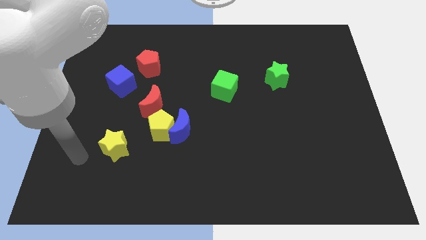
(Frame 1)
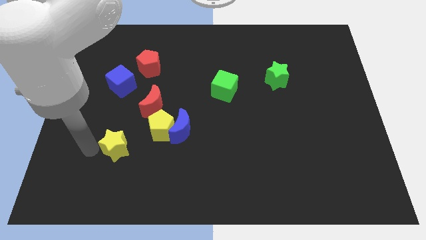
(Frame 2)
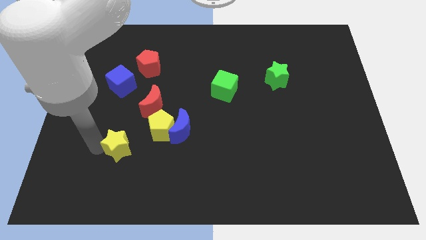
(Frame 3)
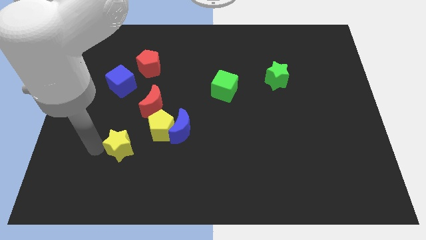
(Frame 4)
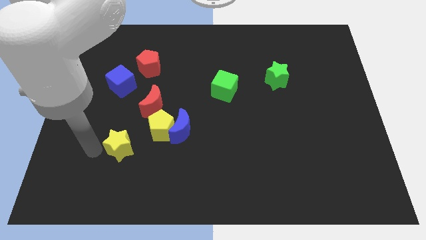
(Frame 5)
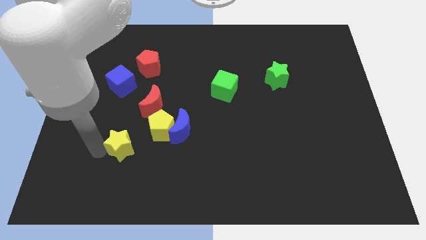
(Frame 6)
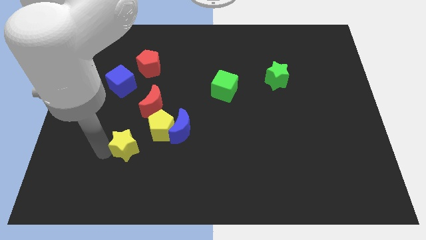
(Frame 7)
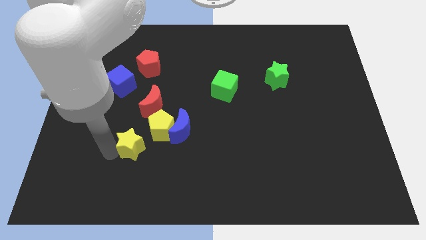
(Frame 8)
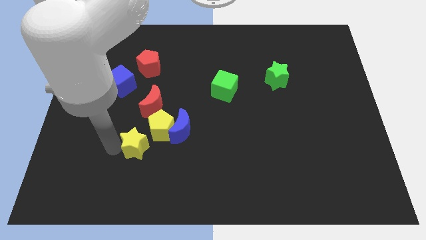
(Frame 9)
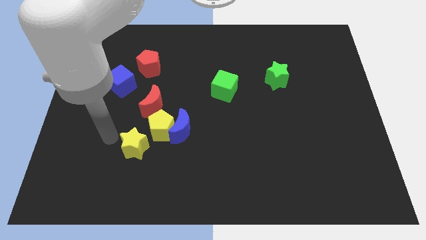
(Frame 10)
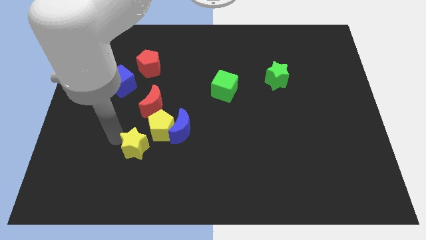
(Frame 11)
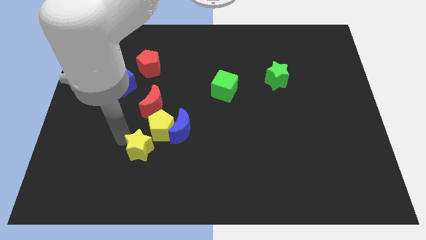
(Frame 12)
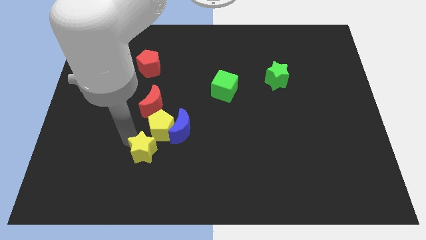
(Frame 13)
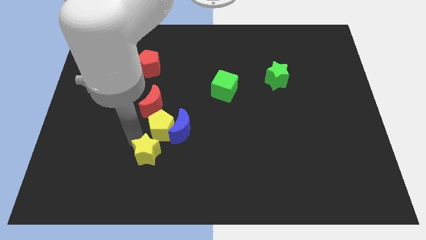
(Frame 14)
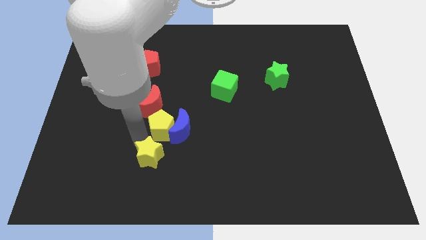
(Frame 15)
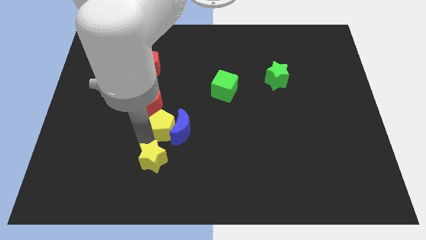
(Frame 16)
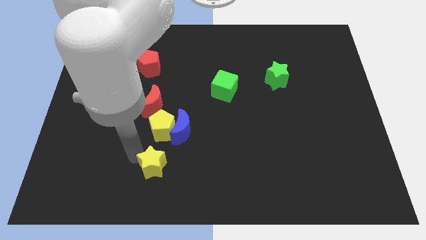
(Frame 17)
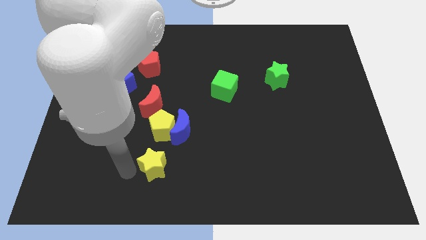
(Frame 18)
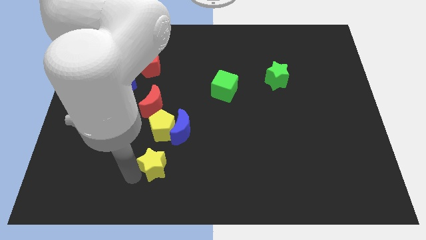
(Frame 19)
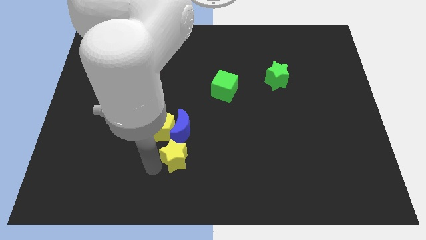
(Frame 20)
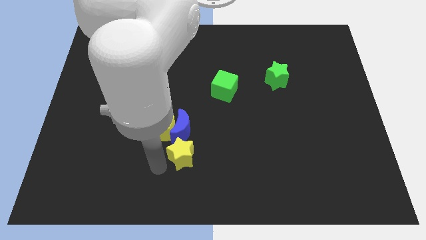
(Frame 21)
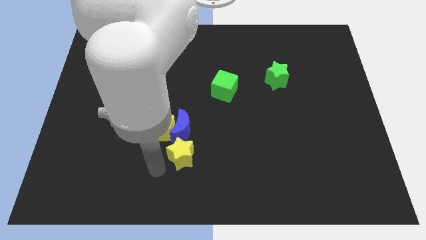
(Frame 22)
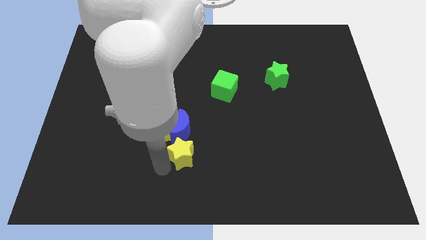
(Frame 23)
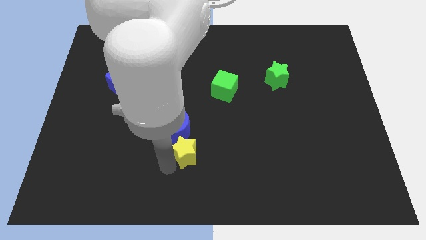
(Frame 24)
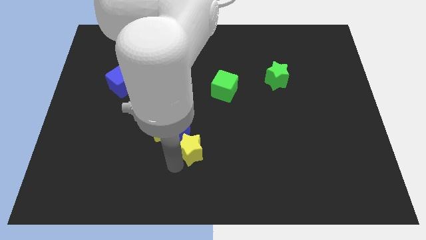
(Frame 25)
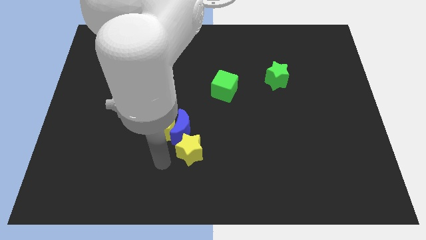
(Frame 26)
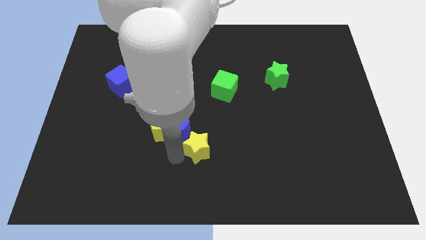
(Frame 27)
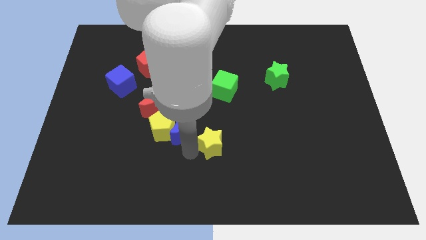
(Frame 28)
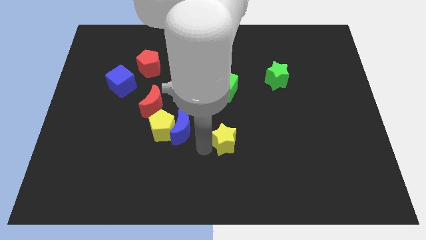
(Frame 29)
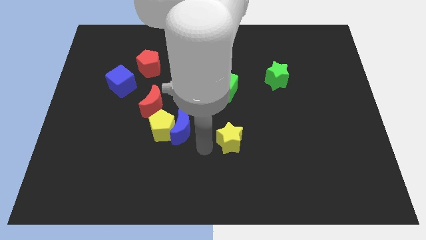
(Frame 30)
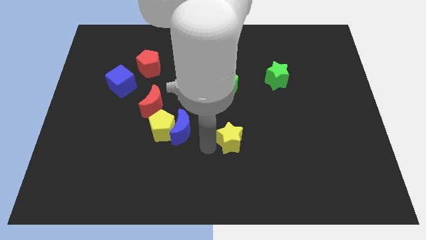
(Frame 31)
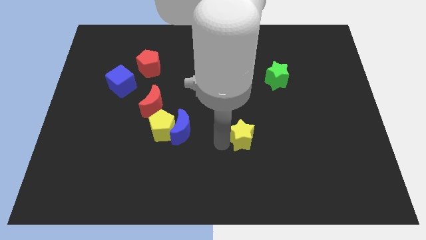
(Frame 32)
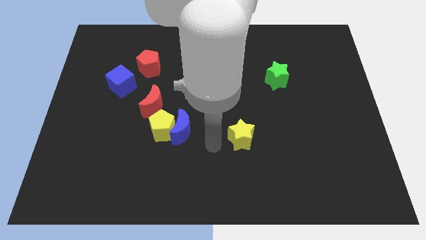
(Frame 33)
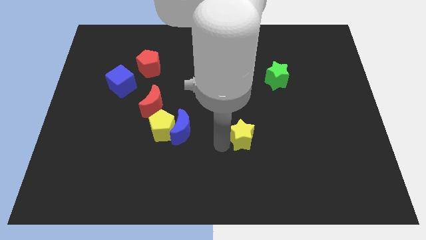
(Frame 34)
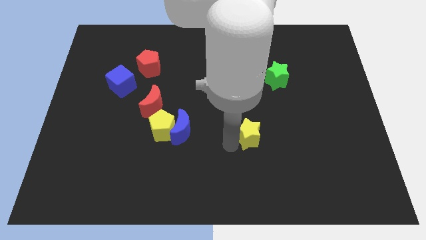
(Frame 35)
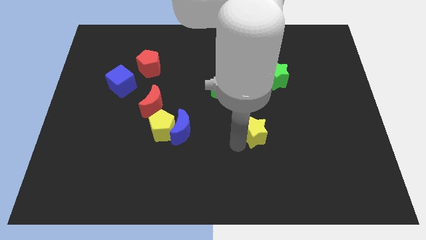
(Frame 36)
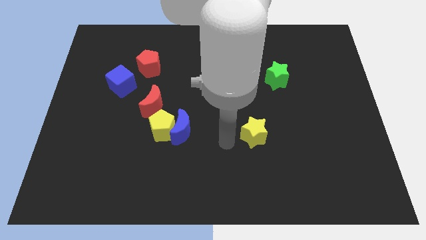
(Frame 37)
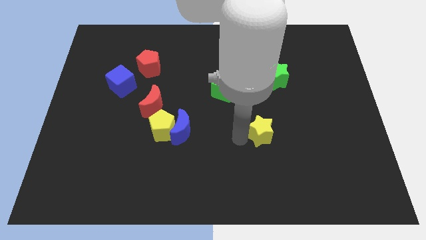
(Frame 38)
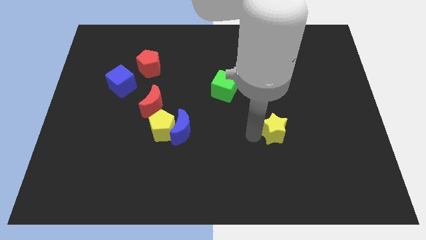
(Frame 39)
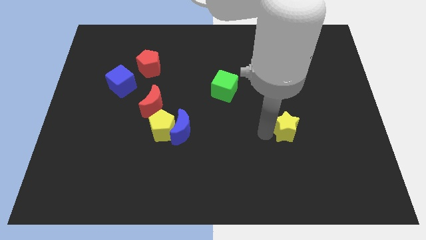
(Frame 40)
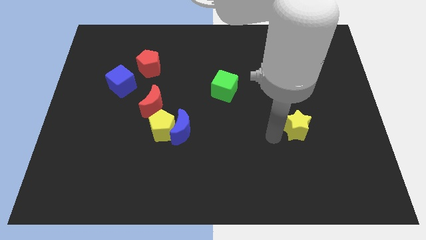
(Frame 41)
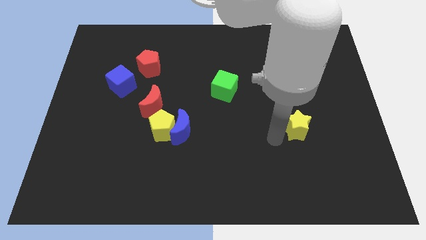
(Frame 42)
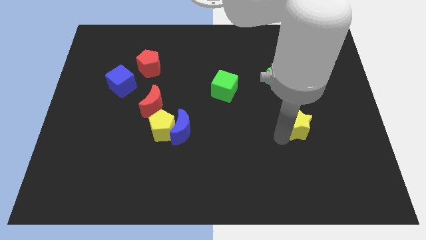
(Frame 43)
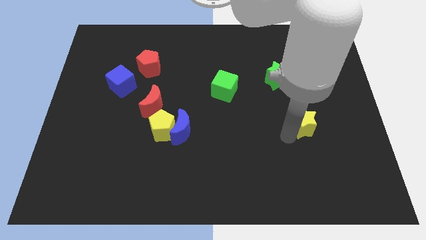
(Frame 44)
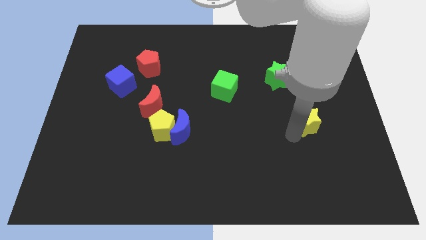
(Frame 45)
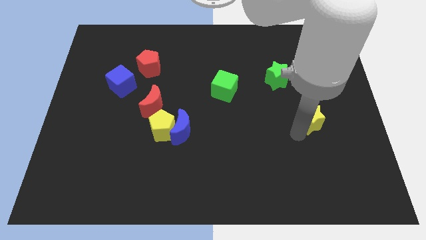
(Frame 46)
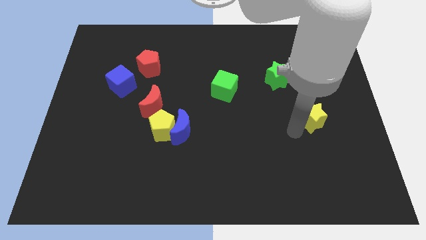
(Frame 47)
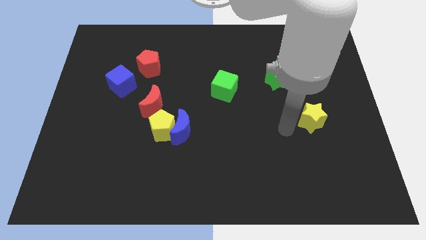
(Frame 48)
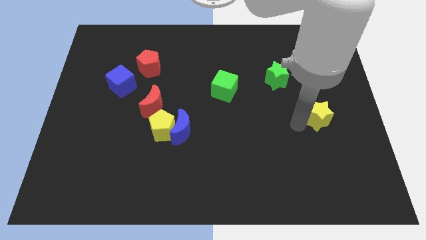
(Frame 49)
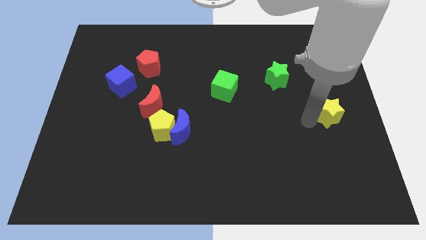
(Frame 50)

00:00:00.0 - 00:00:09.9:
move the yellow star to the right side

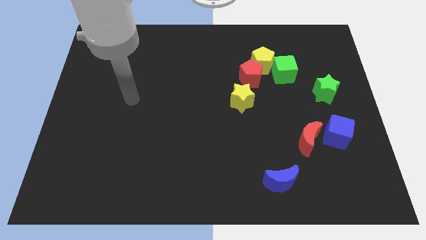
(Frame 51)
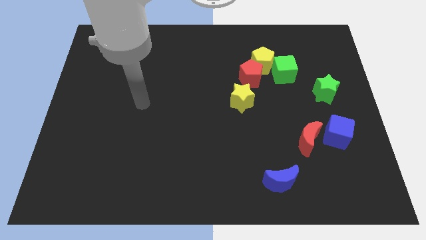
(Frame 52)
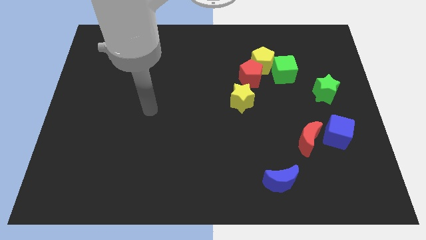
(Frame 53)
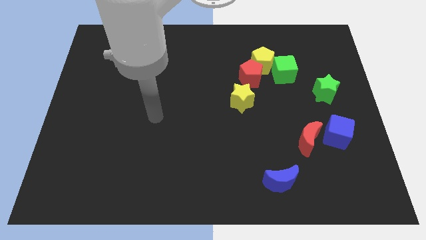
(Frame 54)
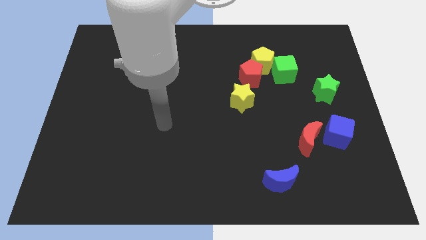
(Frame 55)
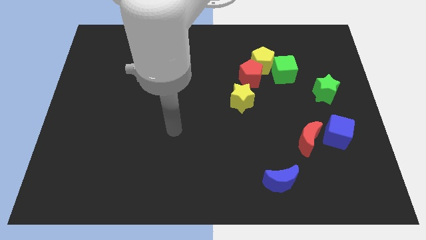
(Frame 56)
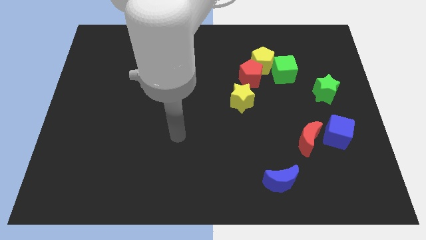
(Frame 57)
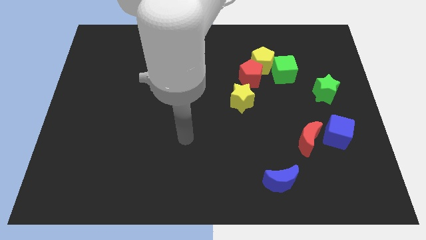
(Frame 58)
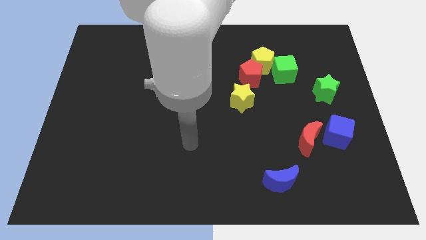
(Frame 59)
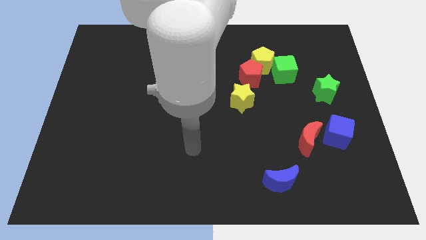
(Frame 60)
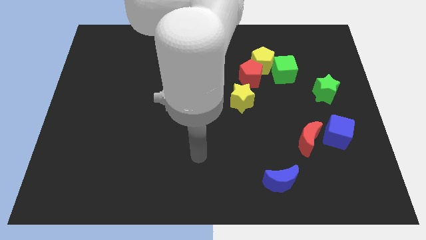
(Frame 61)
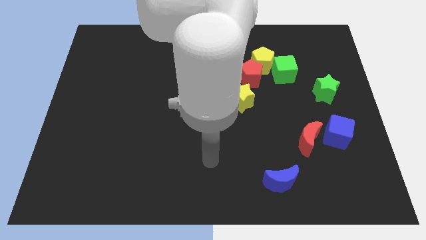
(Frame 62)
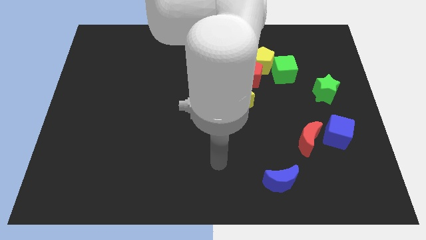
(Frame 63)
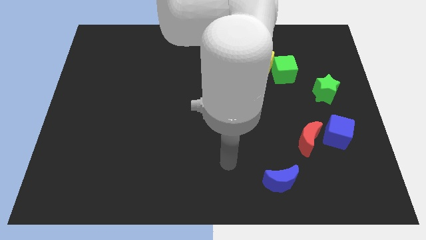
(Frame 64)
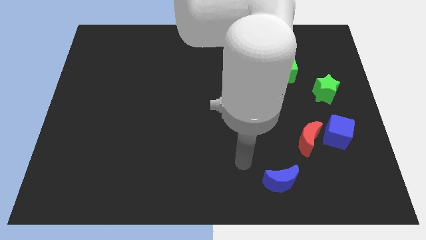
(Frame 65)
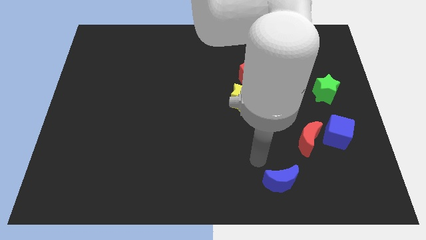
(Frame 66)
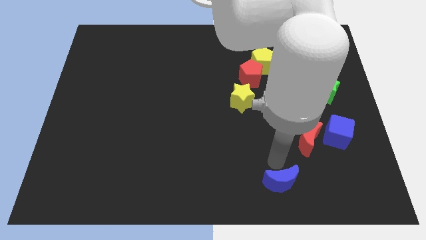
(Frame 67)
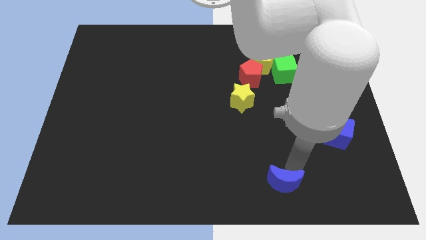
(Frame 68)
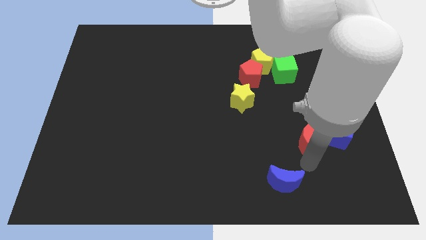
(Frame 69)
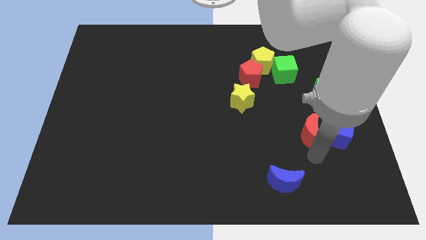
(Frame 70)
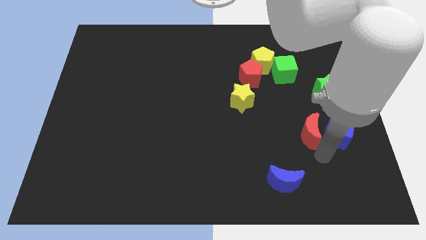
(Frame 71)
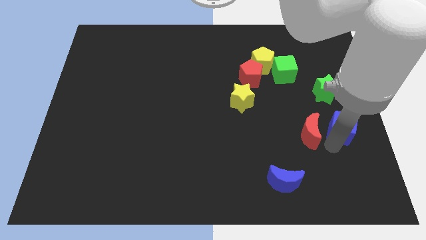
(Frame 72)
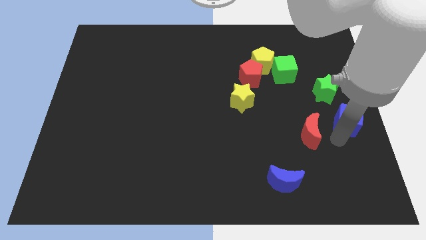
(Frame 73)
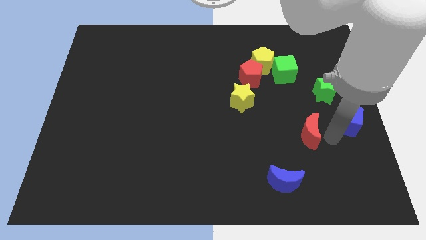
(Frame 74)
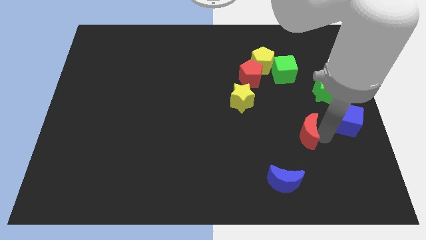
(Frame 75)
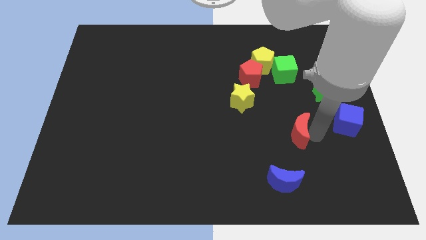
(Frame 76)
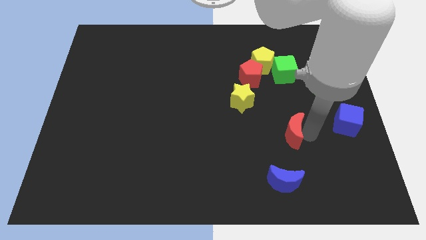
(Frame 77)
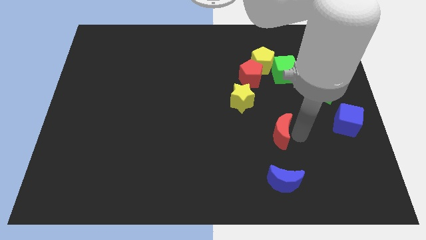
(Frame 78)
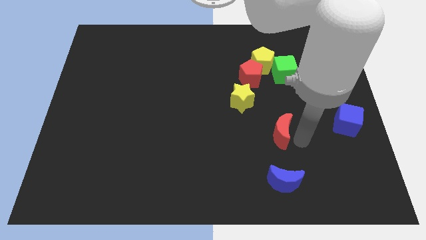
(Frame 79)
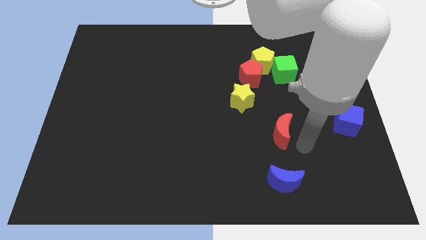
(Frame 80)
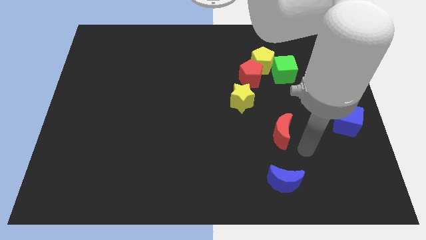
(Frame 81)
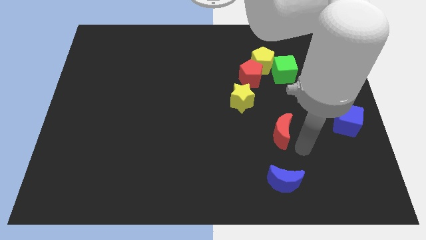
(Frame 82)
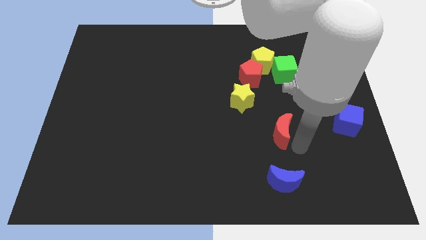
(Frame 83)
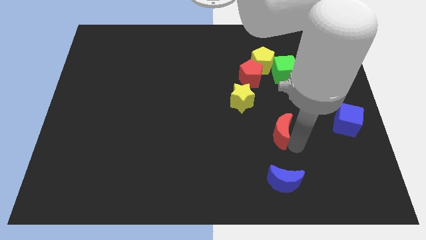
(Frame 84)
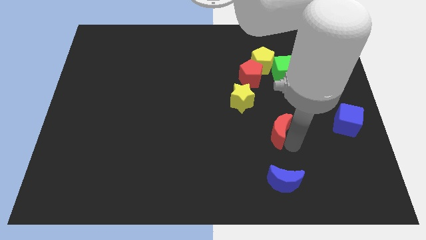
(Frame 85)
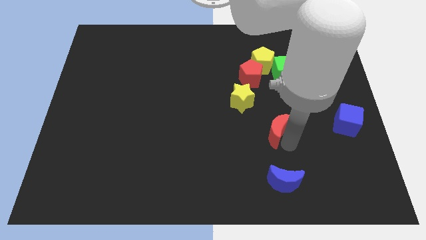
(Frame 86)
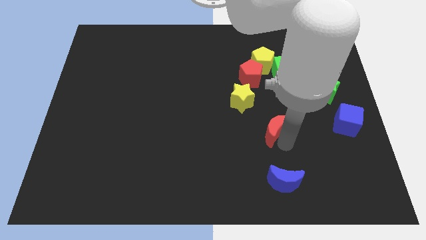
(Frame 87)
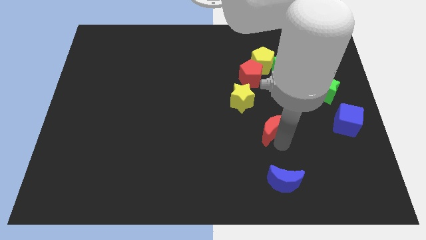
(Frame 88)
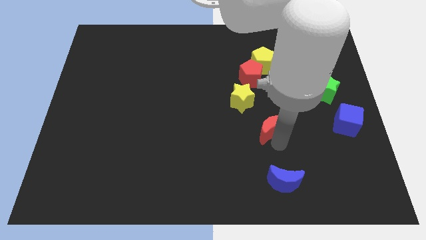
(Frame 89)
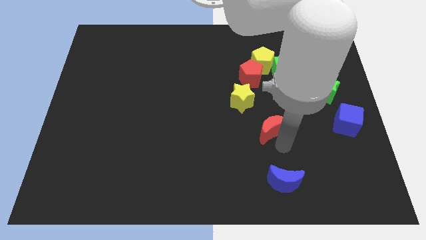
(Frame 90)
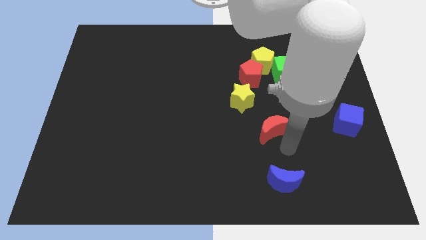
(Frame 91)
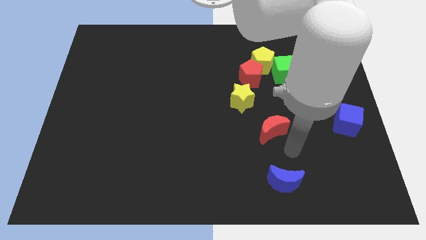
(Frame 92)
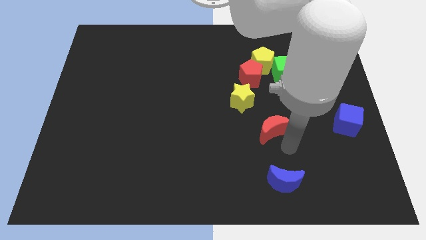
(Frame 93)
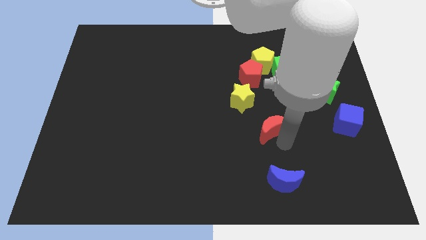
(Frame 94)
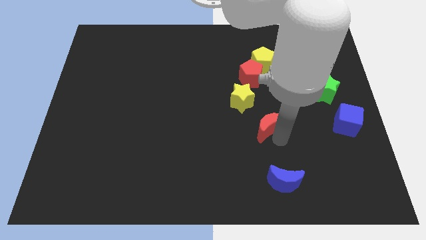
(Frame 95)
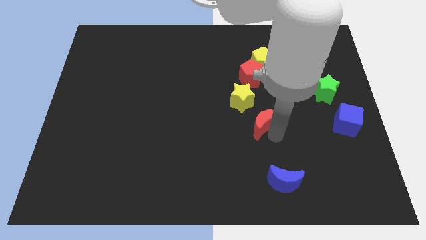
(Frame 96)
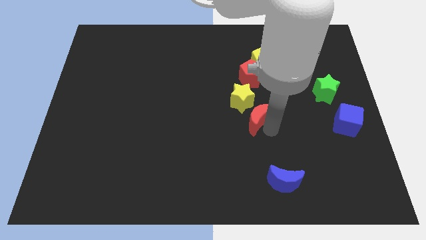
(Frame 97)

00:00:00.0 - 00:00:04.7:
push the red moon to the middle
